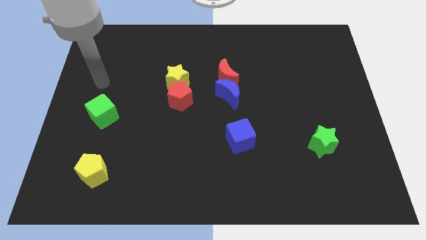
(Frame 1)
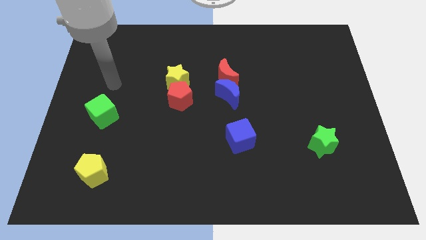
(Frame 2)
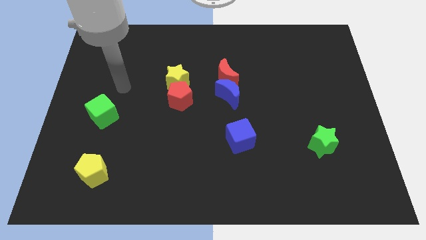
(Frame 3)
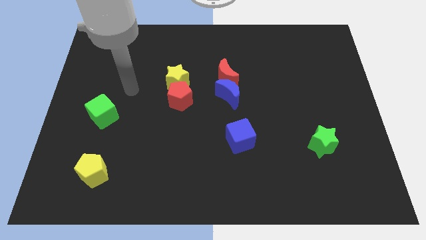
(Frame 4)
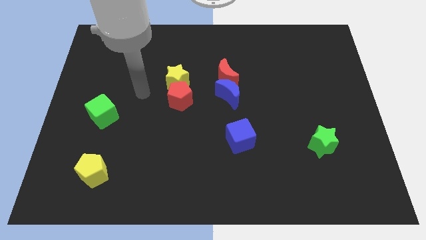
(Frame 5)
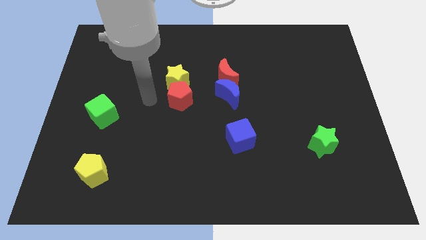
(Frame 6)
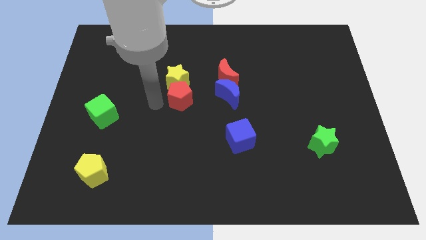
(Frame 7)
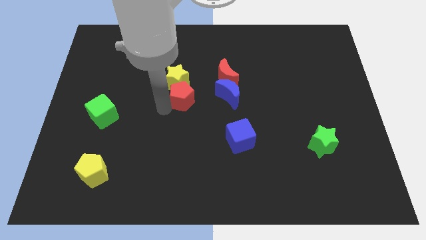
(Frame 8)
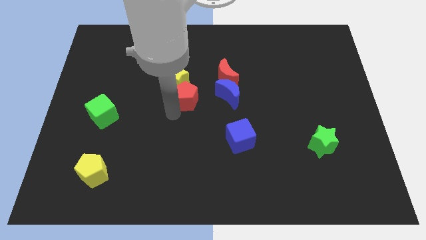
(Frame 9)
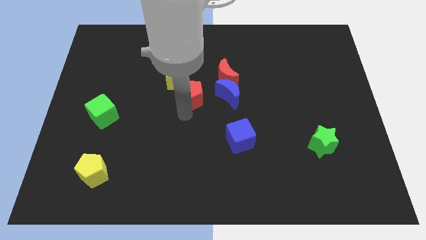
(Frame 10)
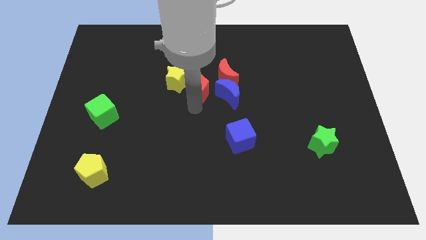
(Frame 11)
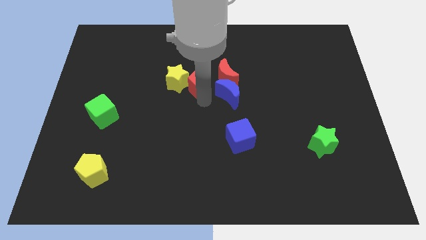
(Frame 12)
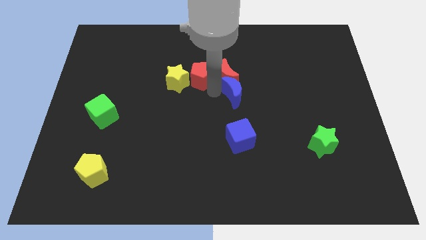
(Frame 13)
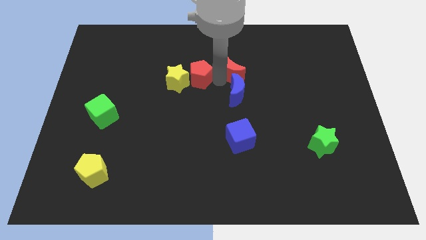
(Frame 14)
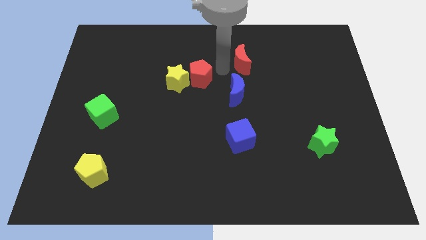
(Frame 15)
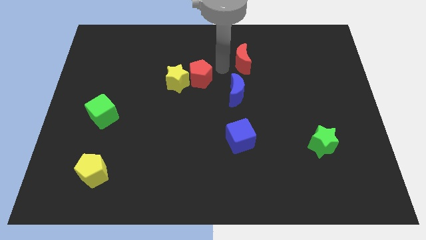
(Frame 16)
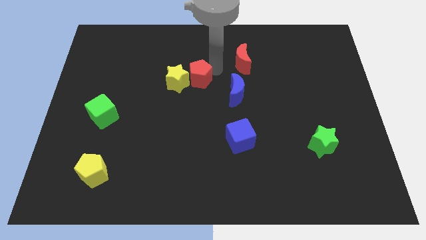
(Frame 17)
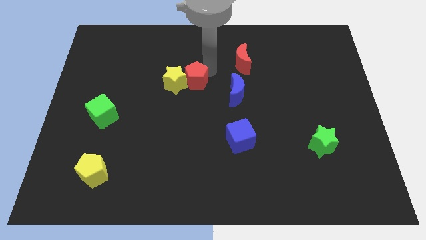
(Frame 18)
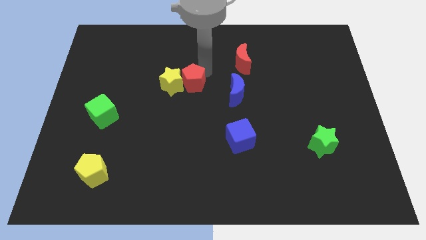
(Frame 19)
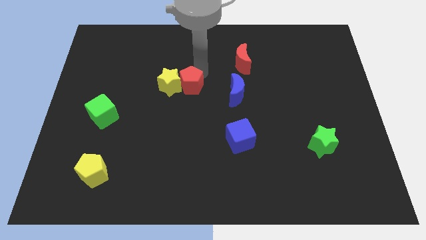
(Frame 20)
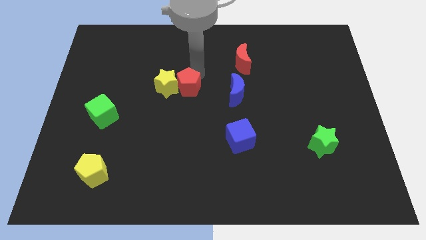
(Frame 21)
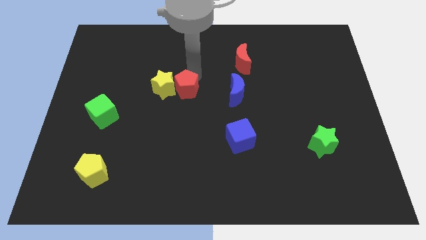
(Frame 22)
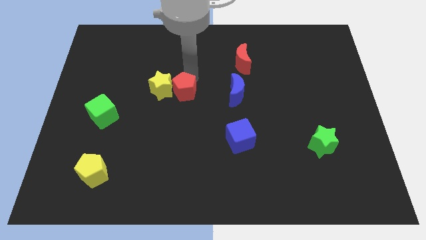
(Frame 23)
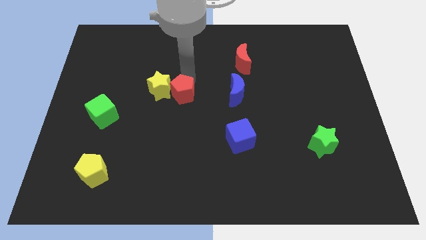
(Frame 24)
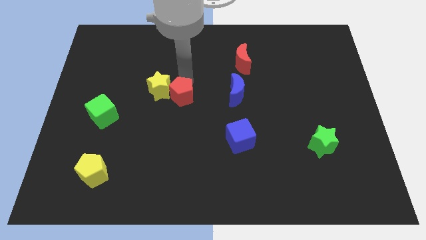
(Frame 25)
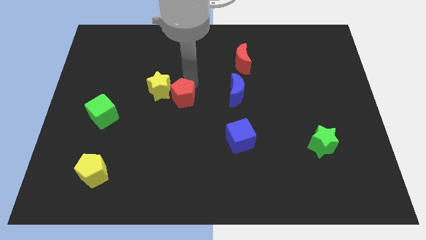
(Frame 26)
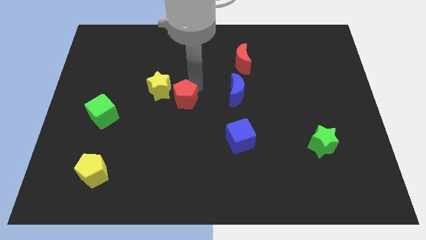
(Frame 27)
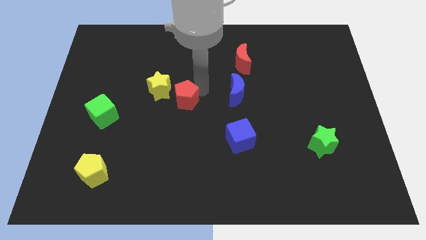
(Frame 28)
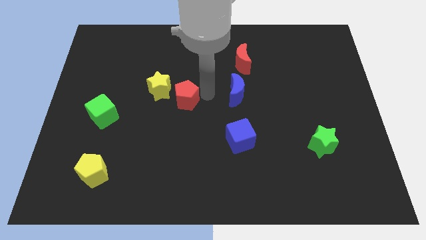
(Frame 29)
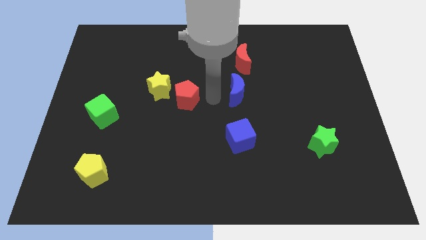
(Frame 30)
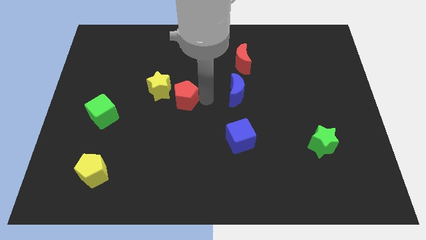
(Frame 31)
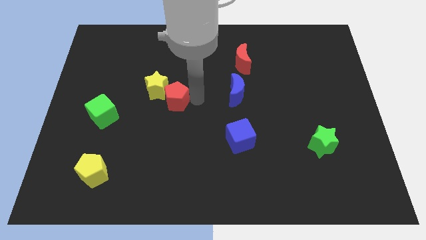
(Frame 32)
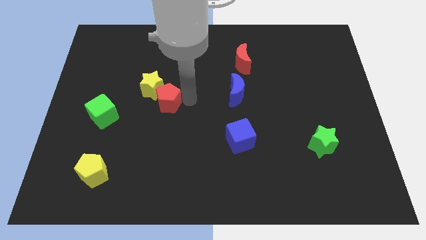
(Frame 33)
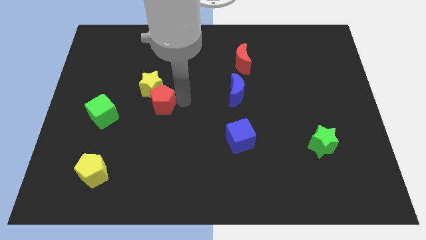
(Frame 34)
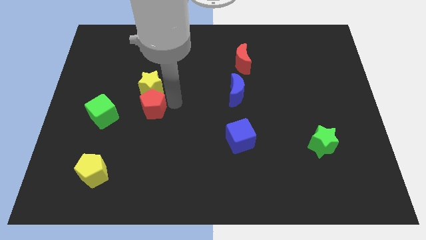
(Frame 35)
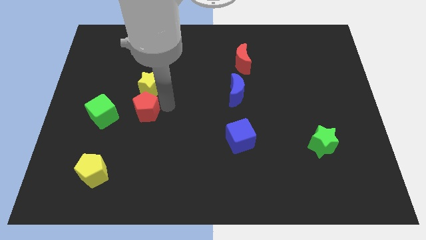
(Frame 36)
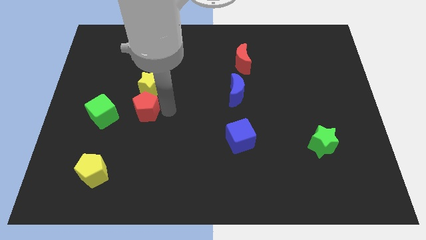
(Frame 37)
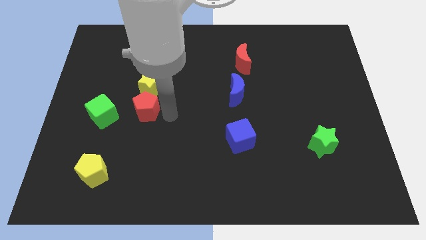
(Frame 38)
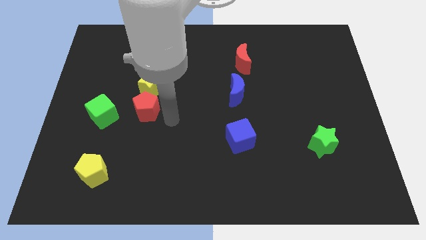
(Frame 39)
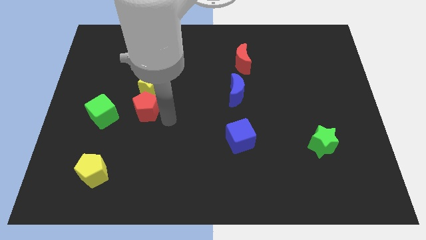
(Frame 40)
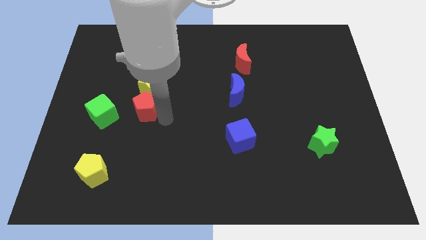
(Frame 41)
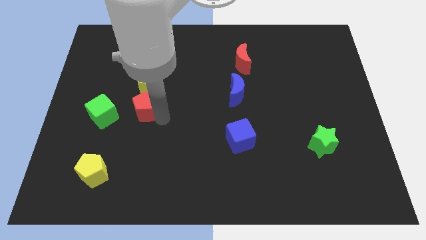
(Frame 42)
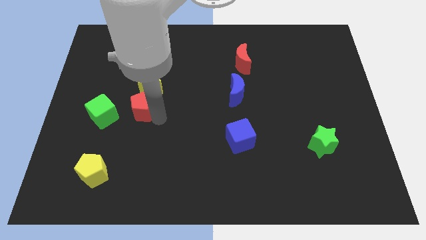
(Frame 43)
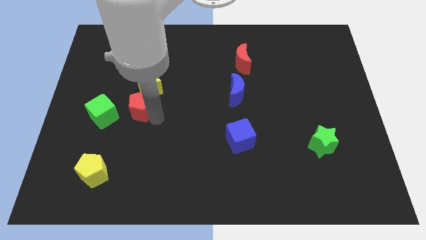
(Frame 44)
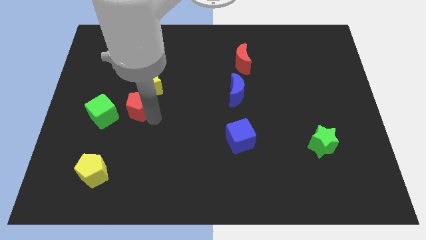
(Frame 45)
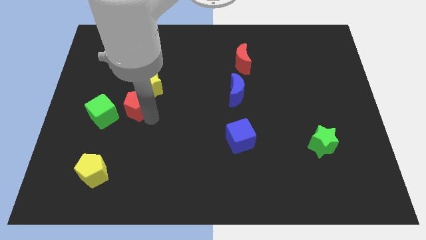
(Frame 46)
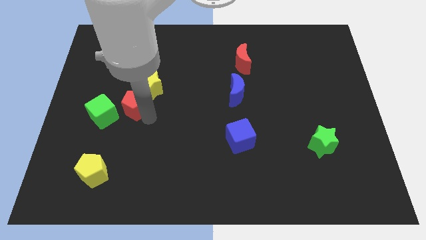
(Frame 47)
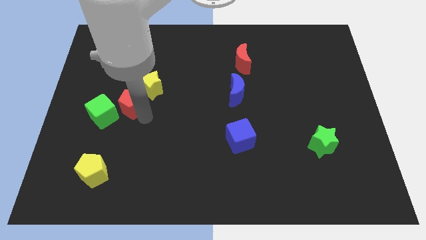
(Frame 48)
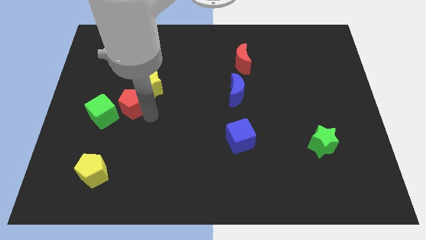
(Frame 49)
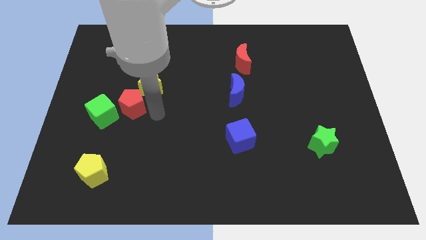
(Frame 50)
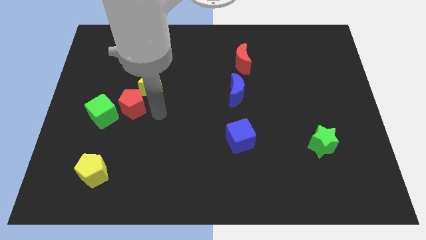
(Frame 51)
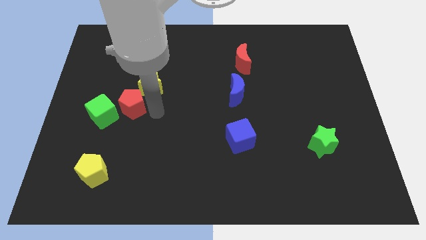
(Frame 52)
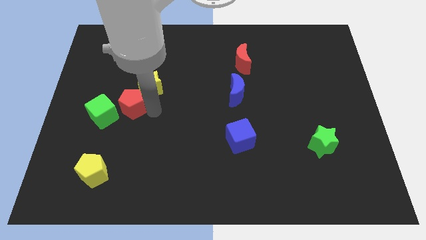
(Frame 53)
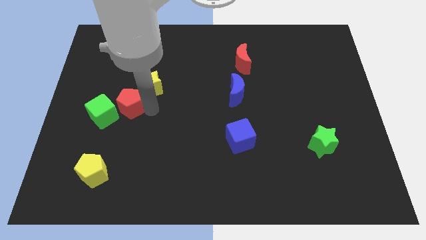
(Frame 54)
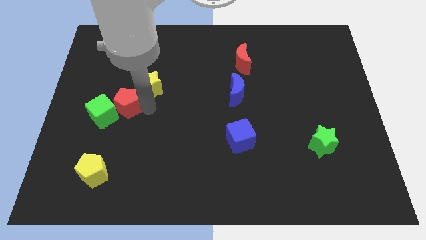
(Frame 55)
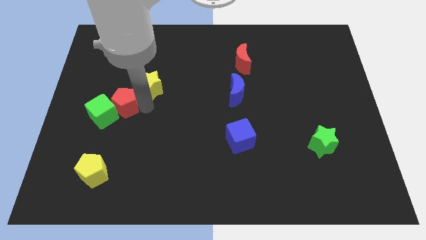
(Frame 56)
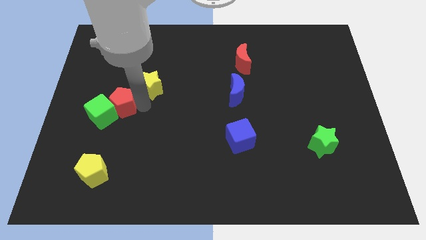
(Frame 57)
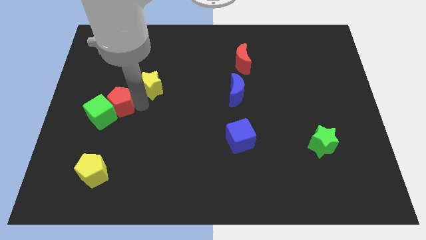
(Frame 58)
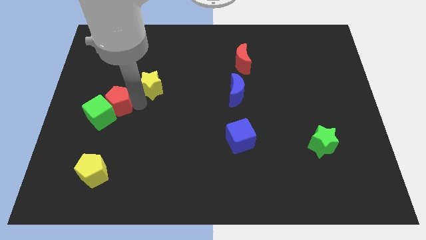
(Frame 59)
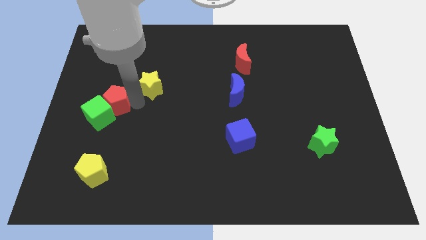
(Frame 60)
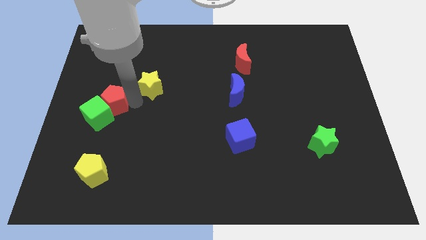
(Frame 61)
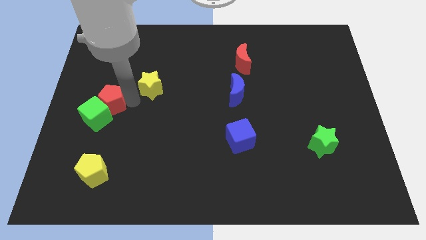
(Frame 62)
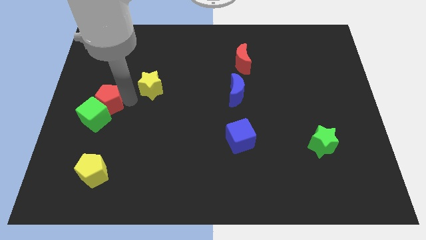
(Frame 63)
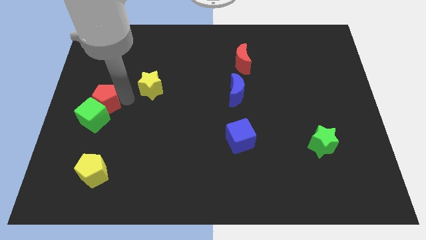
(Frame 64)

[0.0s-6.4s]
slide the red pentagon to the center left
